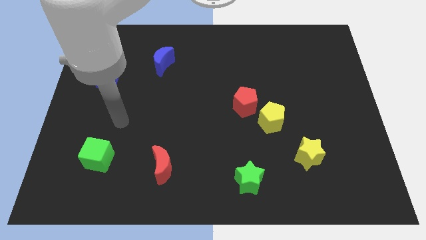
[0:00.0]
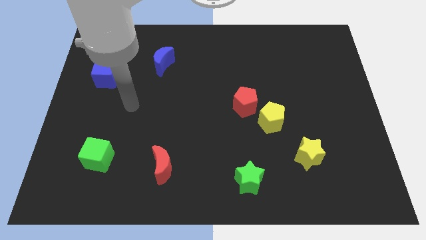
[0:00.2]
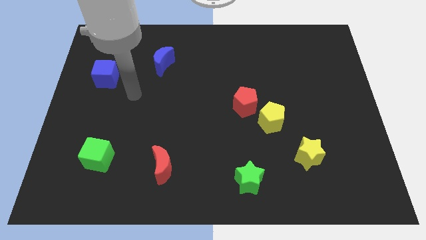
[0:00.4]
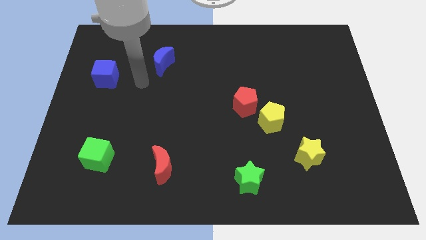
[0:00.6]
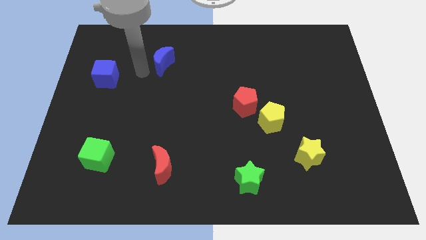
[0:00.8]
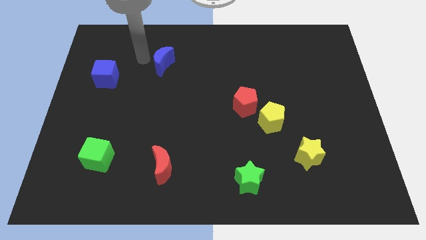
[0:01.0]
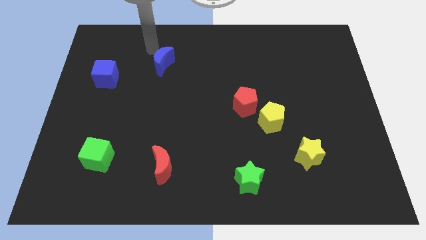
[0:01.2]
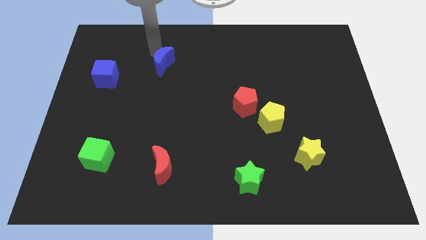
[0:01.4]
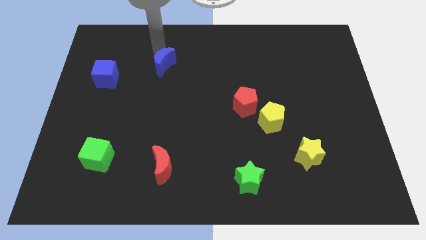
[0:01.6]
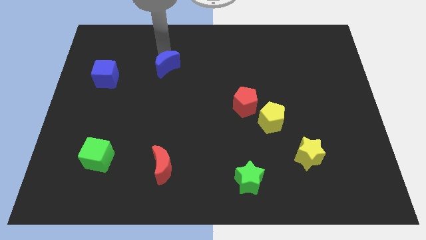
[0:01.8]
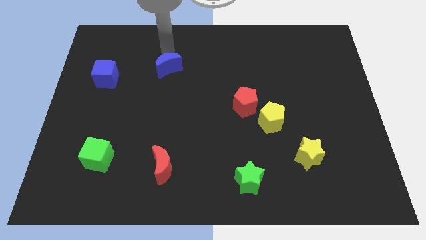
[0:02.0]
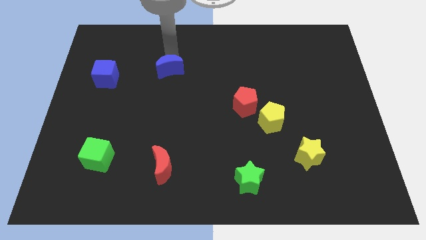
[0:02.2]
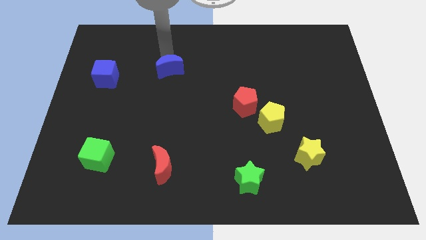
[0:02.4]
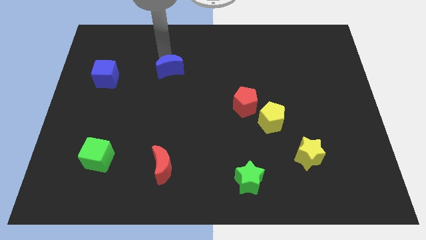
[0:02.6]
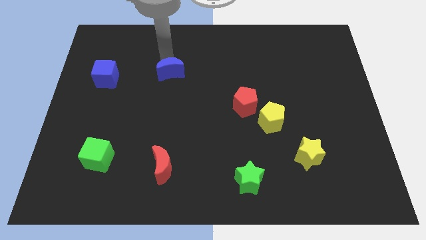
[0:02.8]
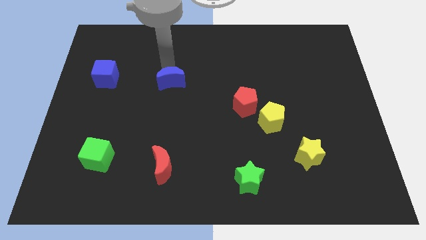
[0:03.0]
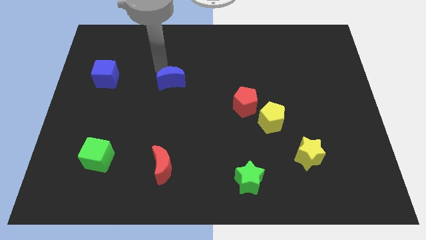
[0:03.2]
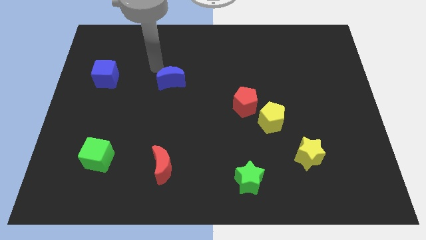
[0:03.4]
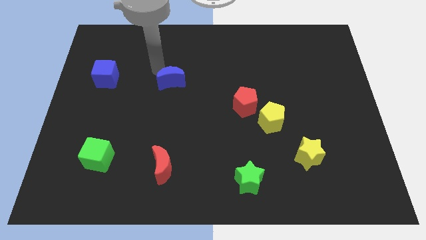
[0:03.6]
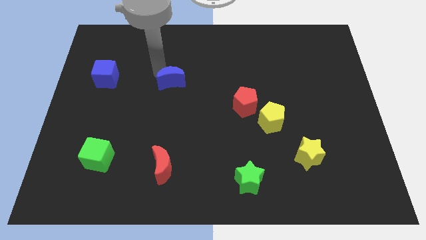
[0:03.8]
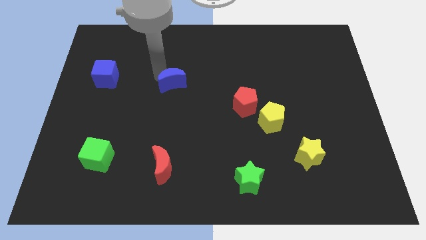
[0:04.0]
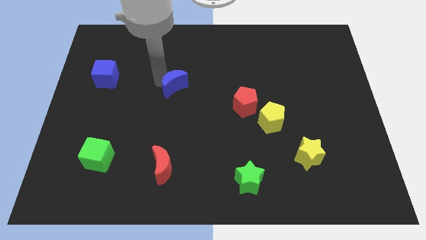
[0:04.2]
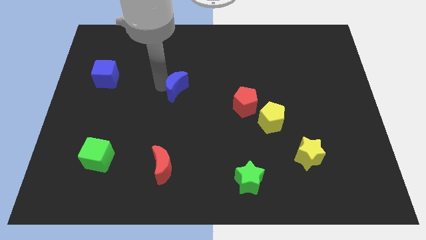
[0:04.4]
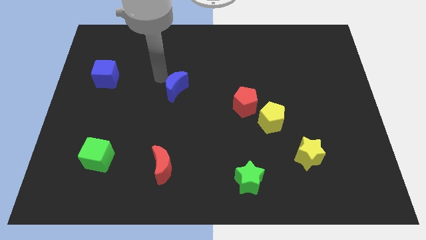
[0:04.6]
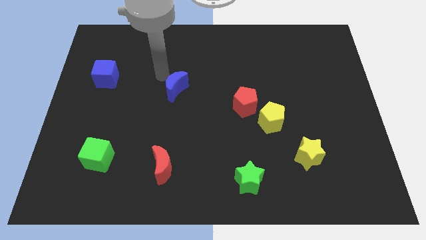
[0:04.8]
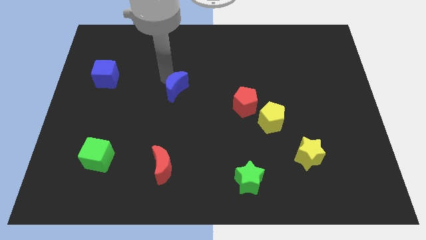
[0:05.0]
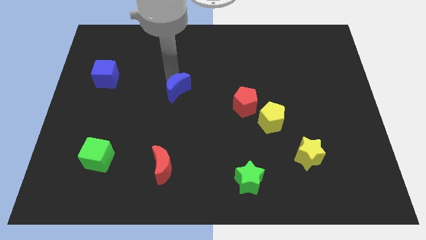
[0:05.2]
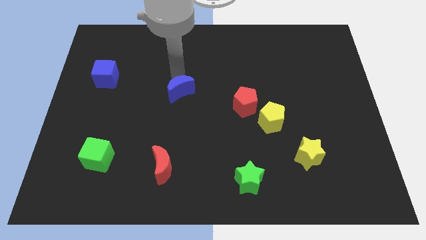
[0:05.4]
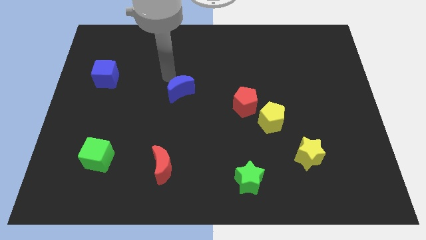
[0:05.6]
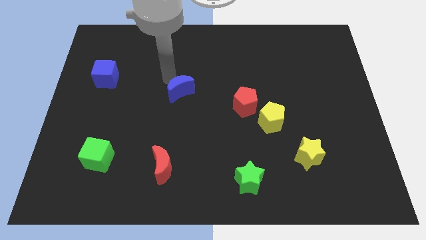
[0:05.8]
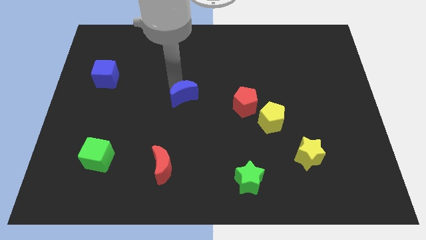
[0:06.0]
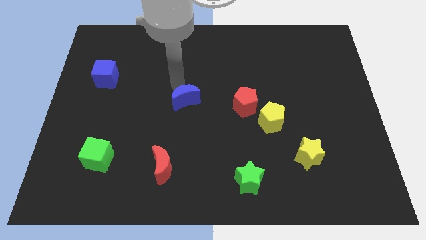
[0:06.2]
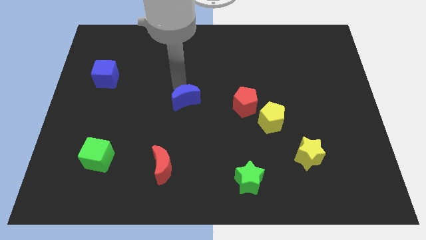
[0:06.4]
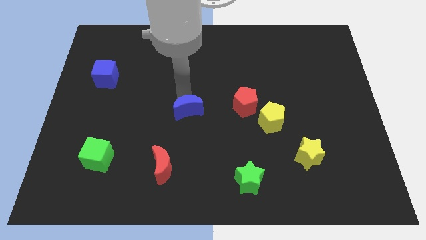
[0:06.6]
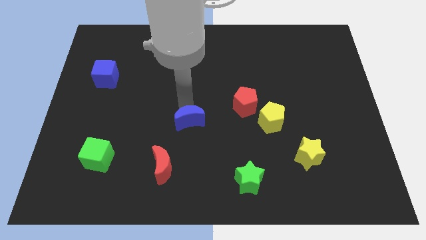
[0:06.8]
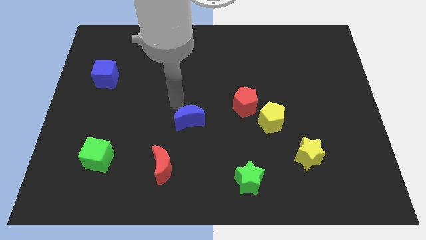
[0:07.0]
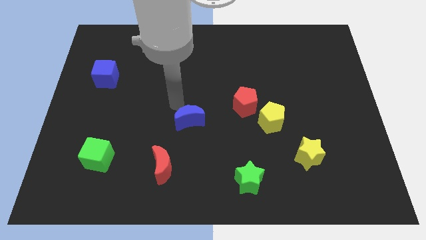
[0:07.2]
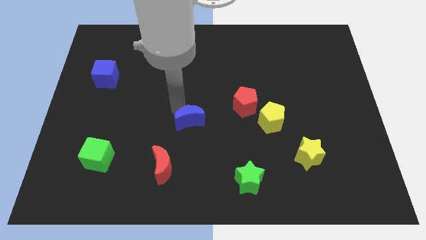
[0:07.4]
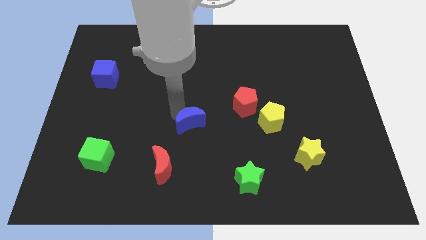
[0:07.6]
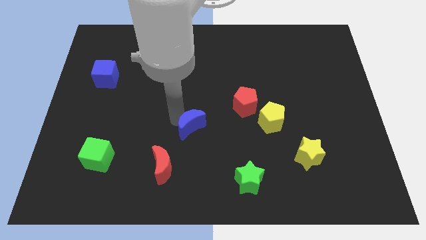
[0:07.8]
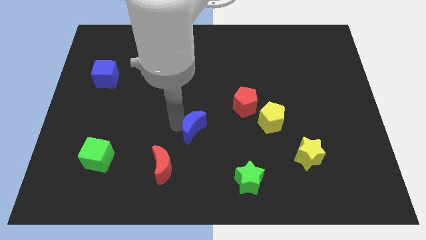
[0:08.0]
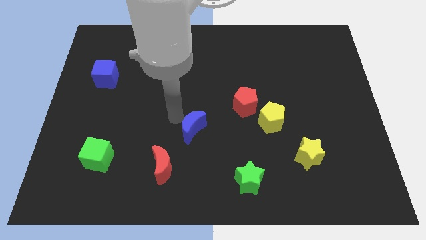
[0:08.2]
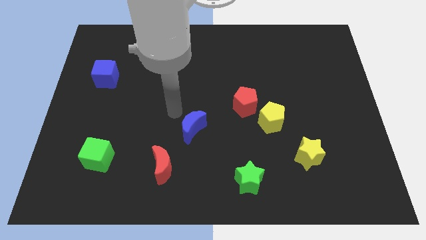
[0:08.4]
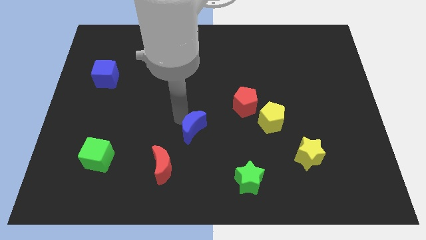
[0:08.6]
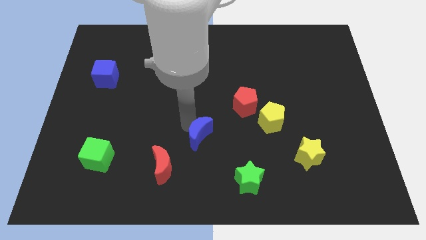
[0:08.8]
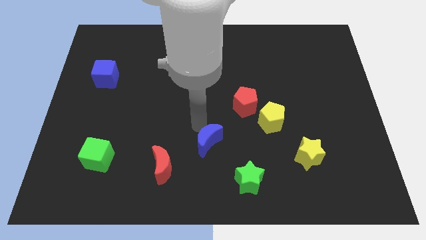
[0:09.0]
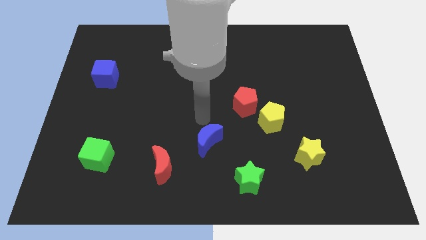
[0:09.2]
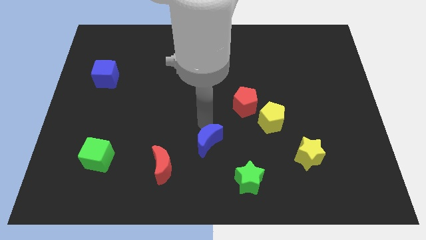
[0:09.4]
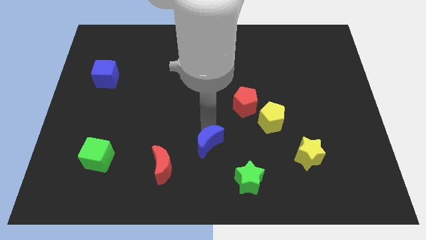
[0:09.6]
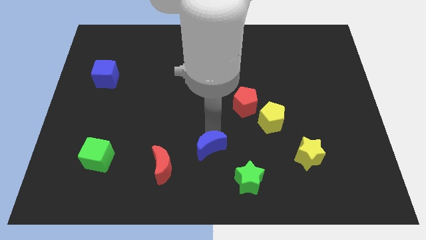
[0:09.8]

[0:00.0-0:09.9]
put the blue moon to the right of the red moon
